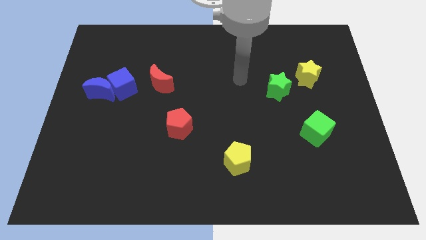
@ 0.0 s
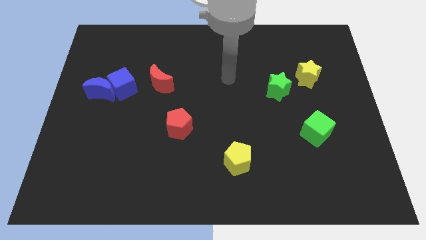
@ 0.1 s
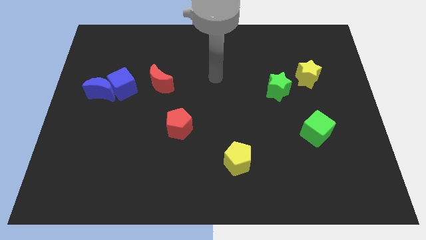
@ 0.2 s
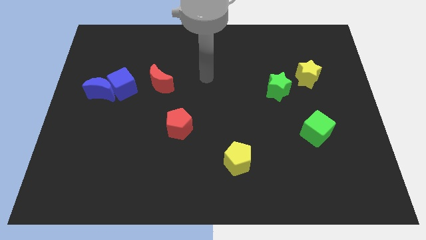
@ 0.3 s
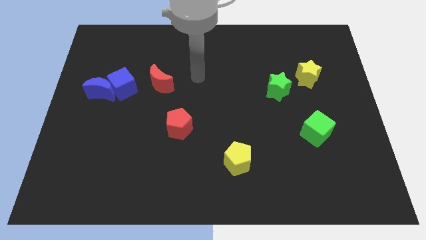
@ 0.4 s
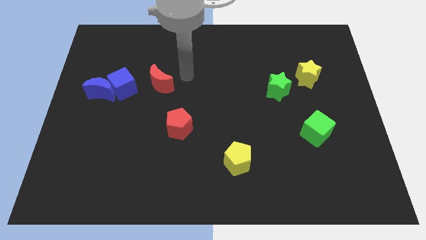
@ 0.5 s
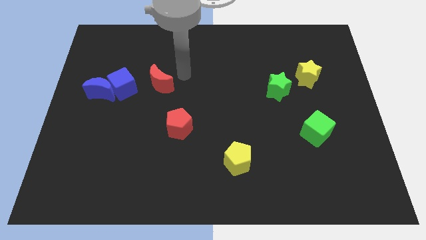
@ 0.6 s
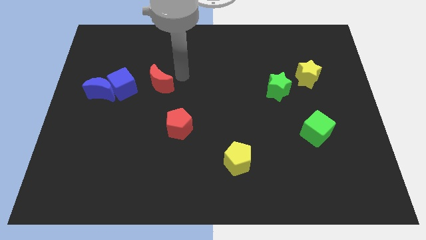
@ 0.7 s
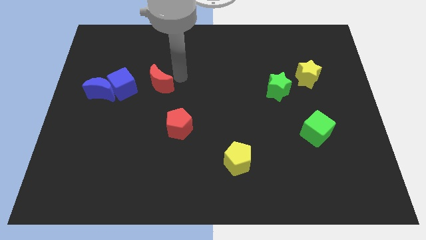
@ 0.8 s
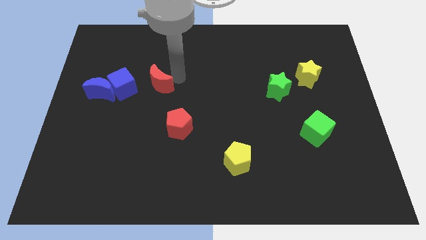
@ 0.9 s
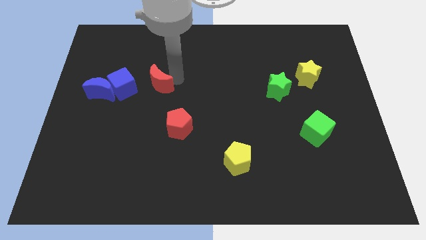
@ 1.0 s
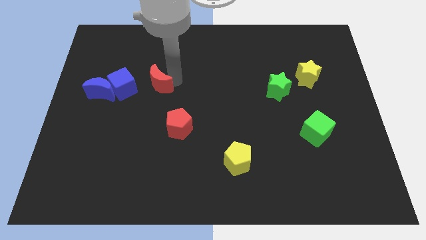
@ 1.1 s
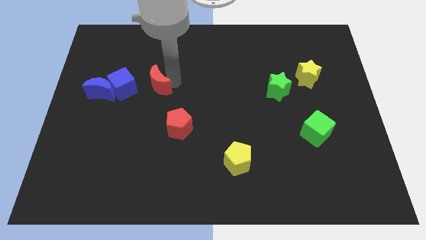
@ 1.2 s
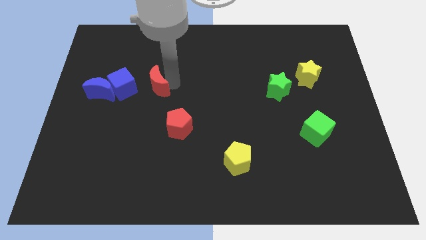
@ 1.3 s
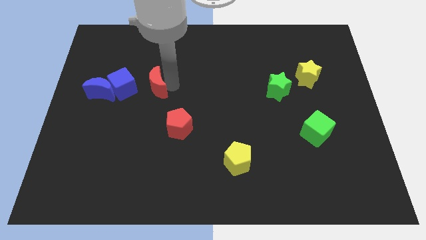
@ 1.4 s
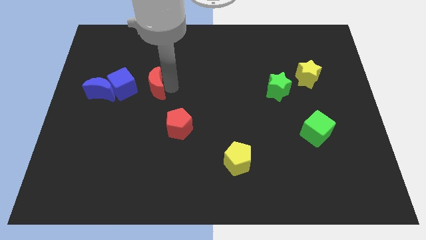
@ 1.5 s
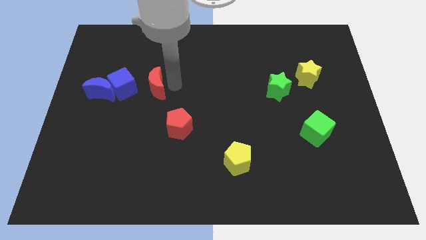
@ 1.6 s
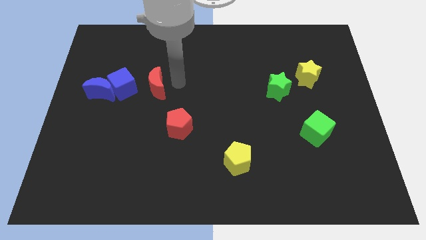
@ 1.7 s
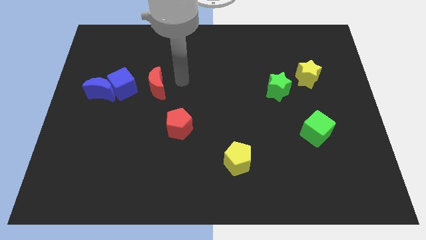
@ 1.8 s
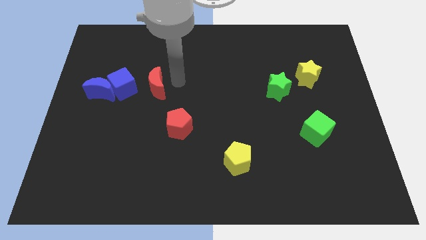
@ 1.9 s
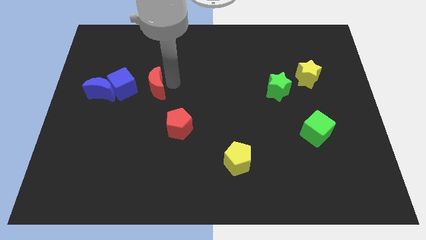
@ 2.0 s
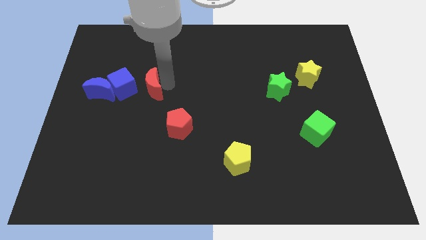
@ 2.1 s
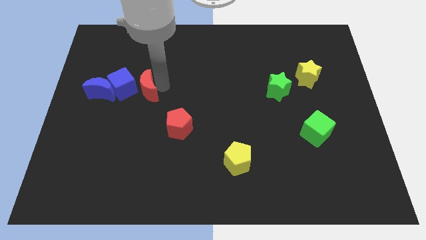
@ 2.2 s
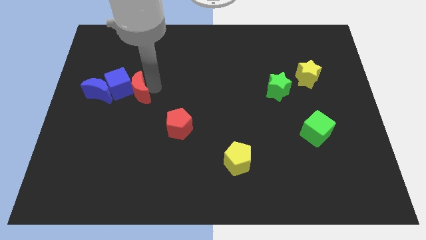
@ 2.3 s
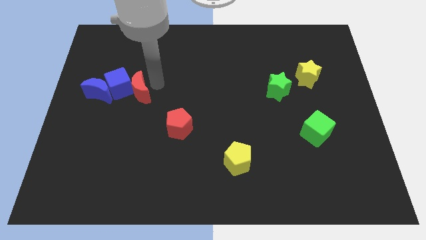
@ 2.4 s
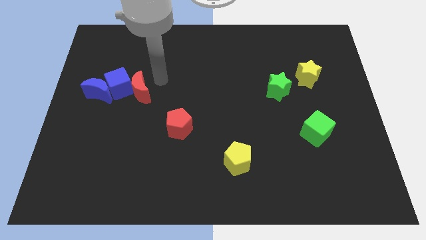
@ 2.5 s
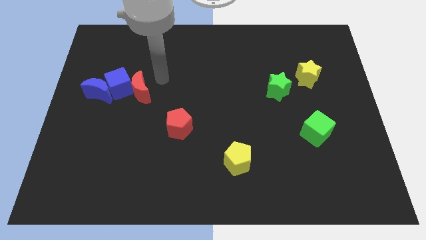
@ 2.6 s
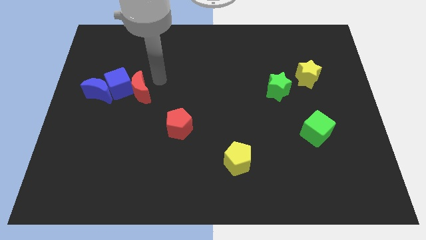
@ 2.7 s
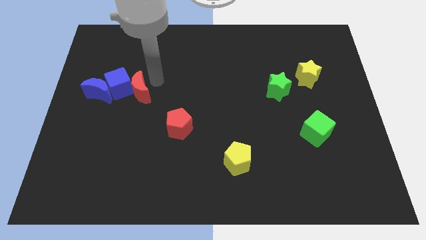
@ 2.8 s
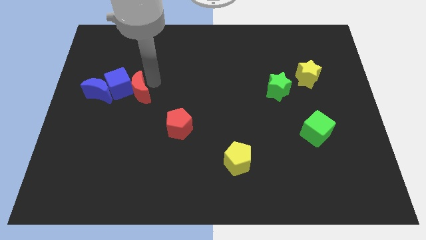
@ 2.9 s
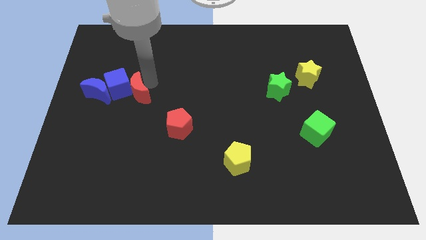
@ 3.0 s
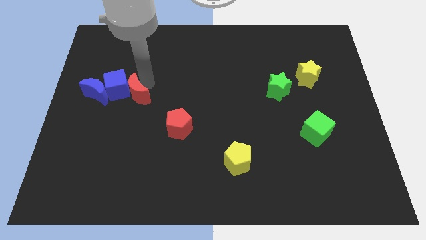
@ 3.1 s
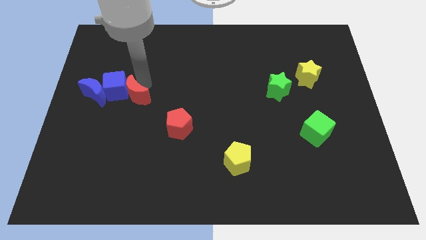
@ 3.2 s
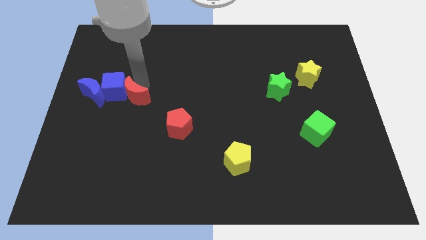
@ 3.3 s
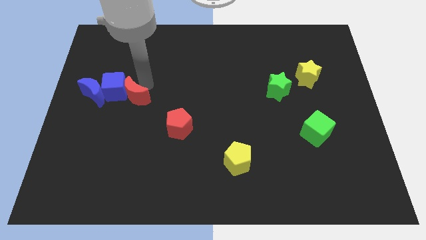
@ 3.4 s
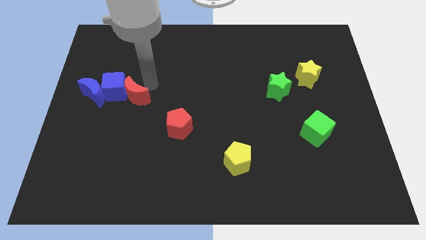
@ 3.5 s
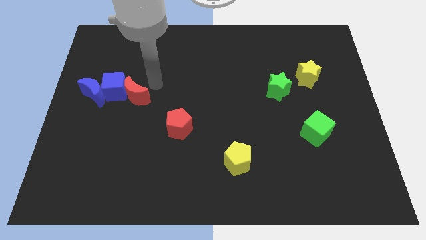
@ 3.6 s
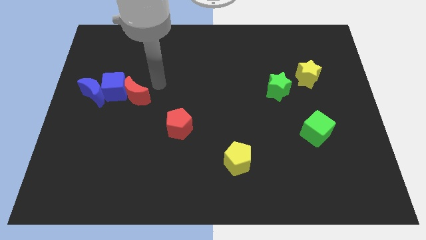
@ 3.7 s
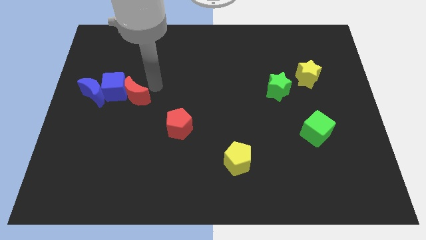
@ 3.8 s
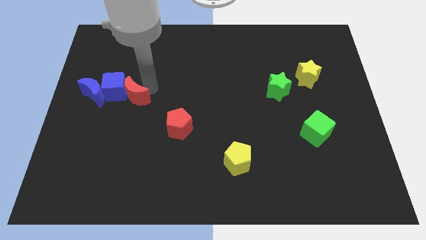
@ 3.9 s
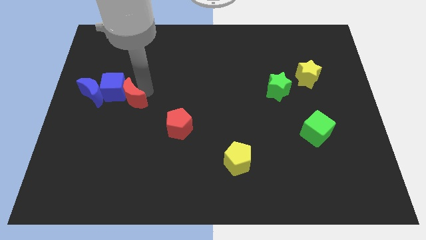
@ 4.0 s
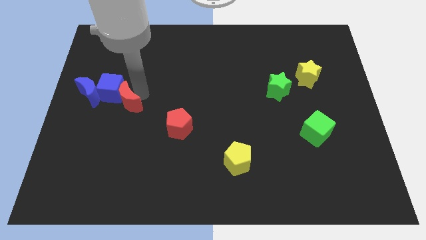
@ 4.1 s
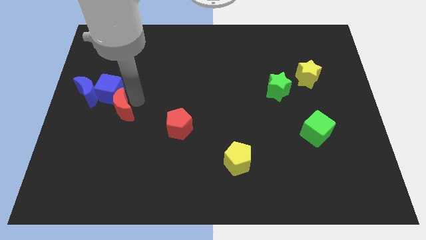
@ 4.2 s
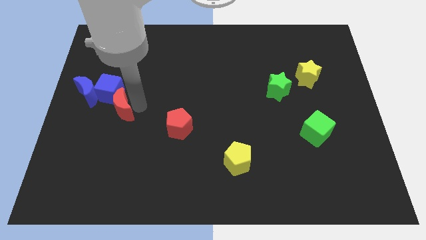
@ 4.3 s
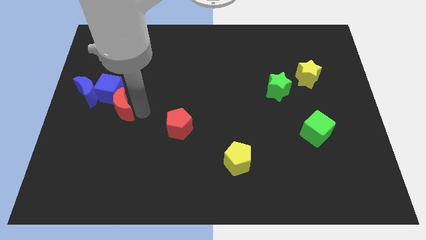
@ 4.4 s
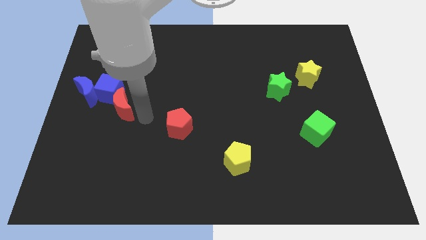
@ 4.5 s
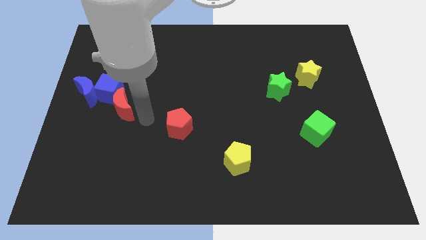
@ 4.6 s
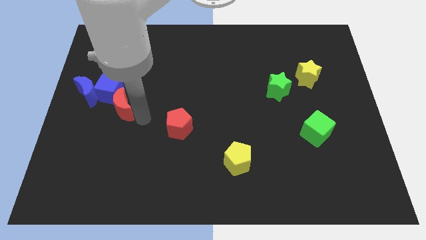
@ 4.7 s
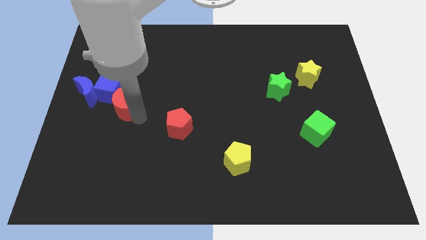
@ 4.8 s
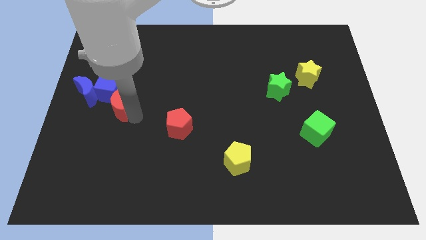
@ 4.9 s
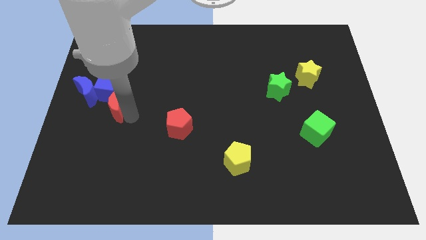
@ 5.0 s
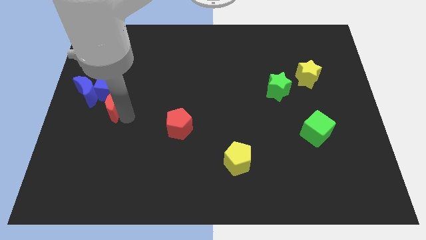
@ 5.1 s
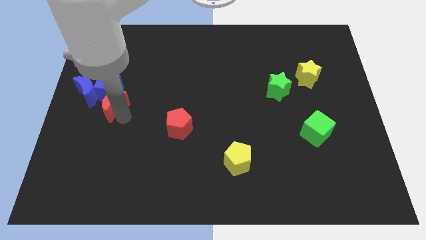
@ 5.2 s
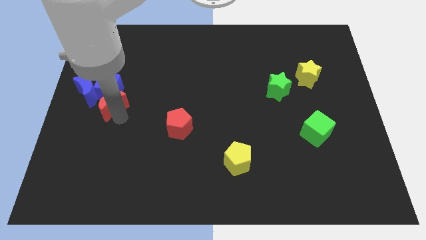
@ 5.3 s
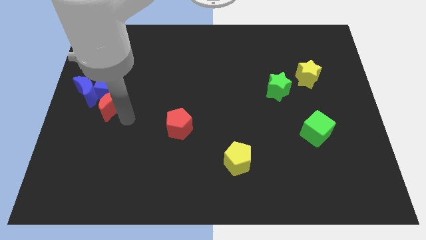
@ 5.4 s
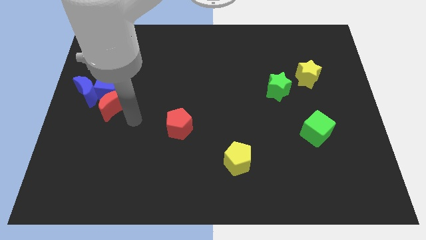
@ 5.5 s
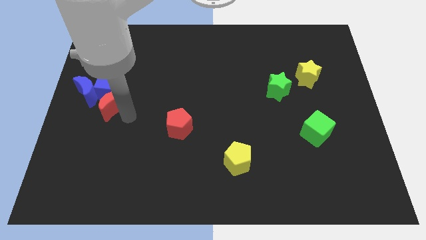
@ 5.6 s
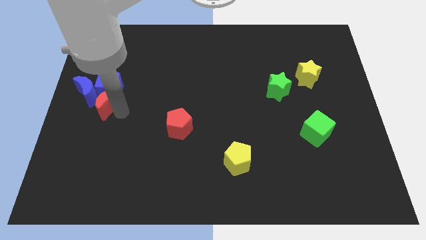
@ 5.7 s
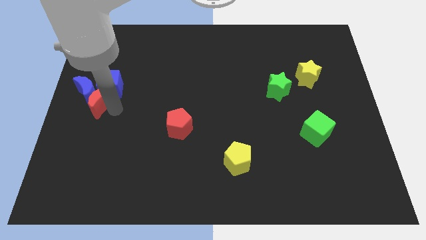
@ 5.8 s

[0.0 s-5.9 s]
push the red moon towards the blue moon

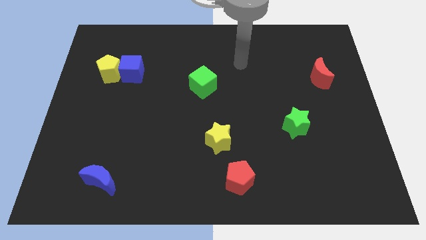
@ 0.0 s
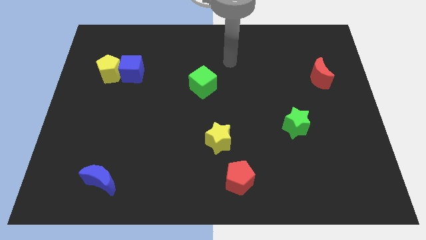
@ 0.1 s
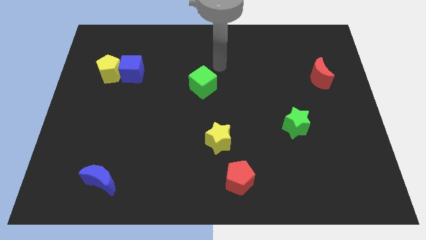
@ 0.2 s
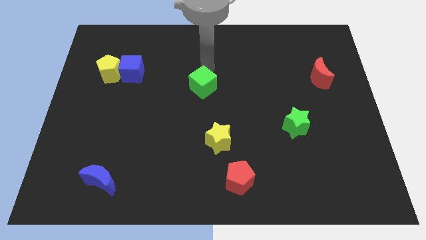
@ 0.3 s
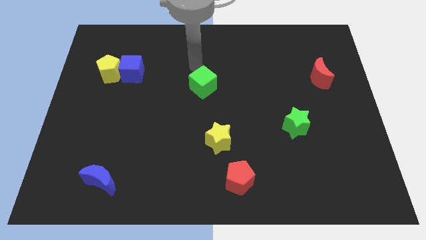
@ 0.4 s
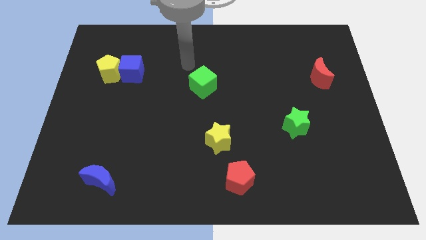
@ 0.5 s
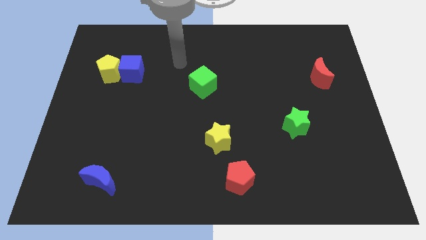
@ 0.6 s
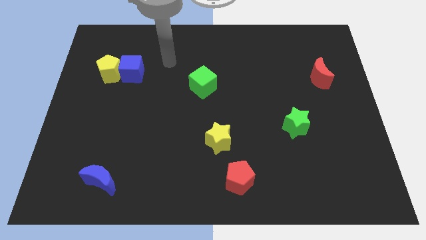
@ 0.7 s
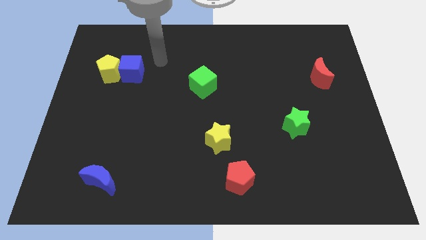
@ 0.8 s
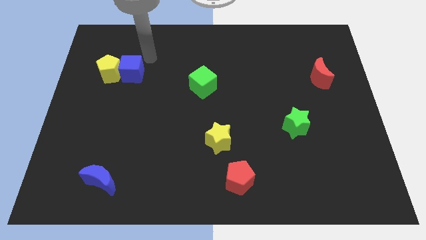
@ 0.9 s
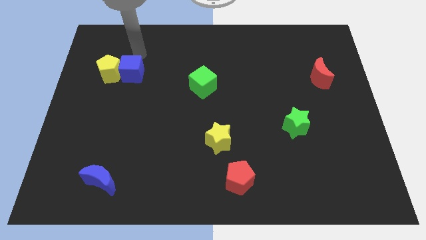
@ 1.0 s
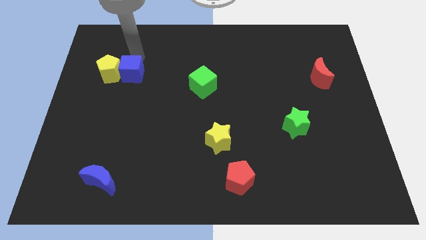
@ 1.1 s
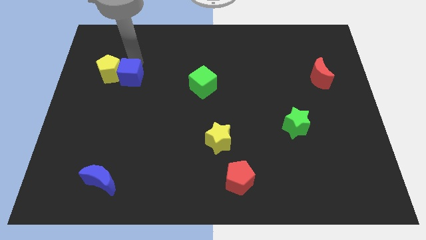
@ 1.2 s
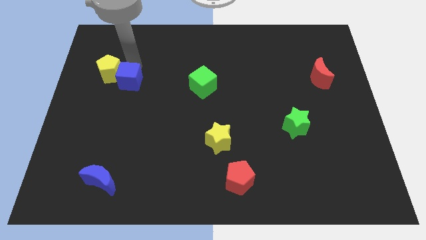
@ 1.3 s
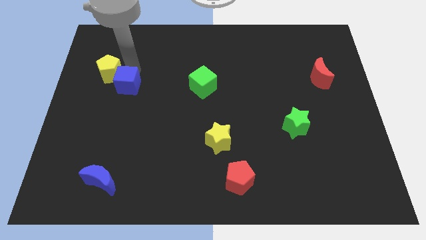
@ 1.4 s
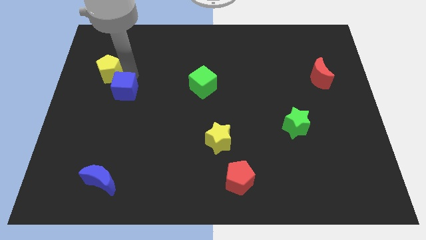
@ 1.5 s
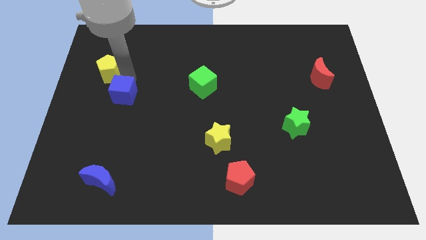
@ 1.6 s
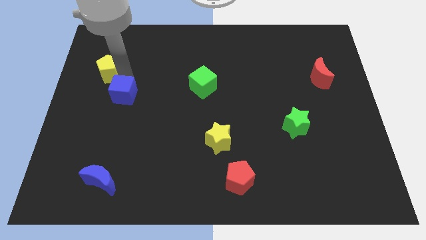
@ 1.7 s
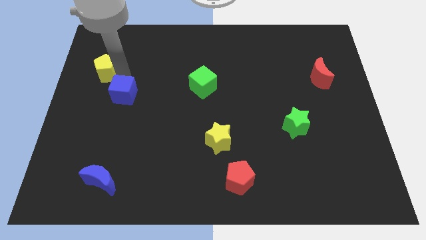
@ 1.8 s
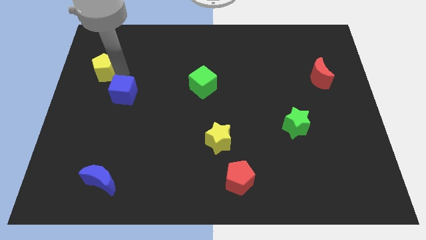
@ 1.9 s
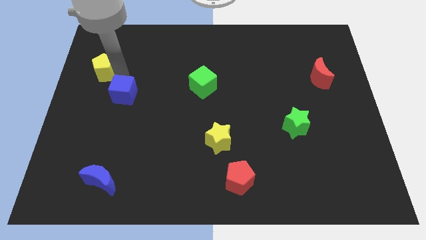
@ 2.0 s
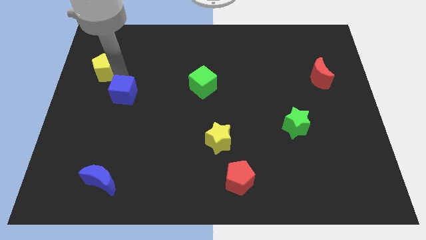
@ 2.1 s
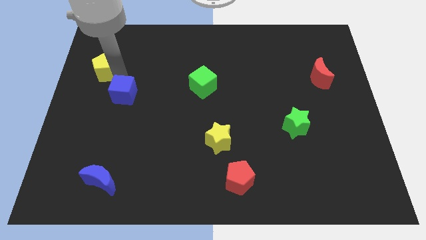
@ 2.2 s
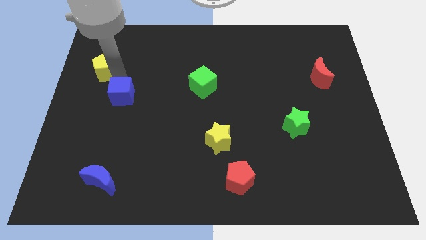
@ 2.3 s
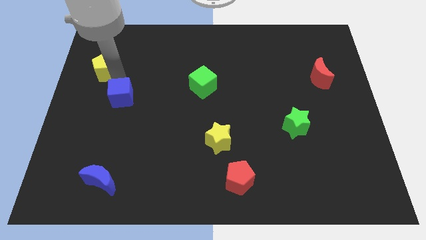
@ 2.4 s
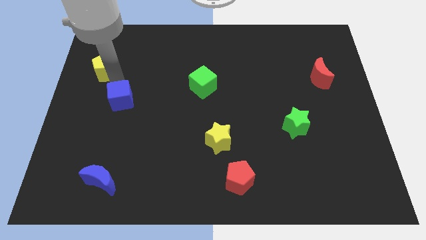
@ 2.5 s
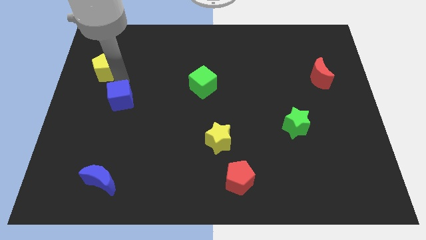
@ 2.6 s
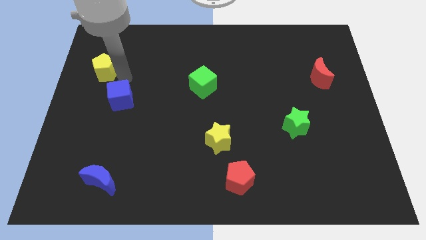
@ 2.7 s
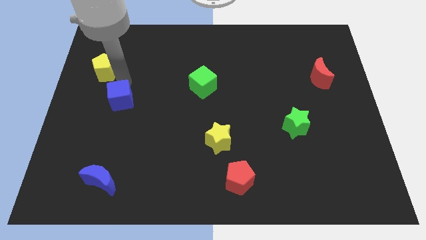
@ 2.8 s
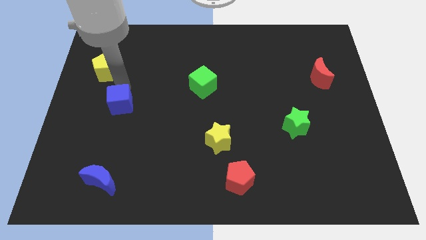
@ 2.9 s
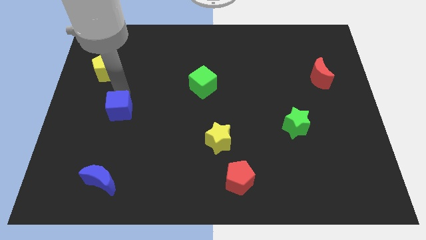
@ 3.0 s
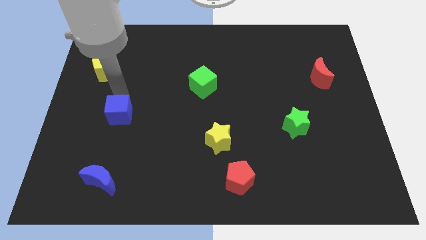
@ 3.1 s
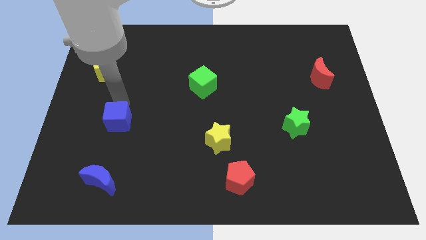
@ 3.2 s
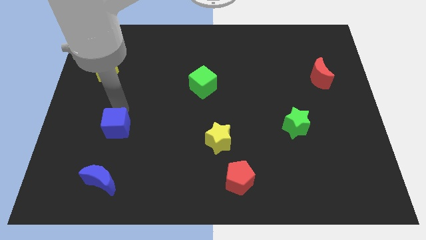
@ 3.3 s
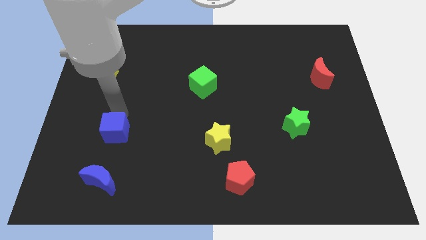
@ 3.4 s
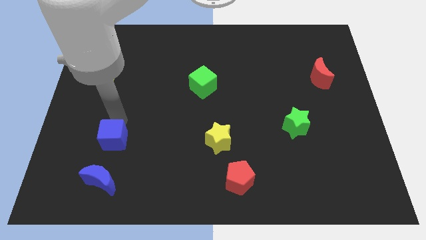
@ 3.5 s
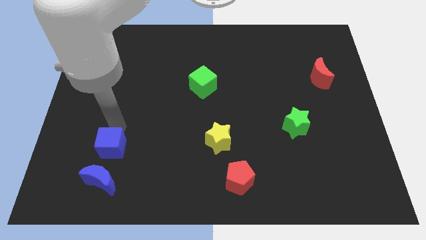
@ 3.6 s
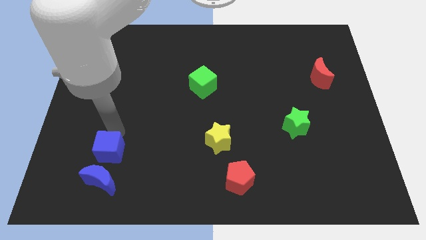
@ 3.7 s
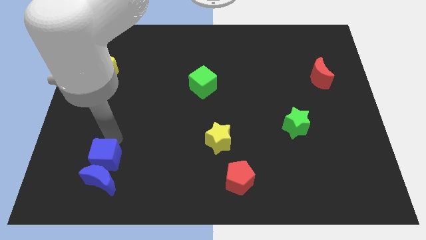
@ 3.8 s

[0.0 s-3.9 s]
slide the blue cube towards the blue moon
